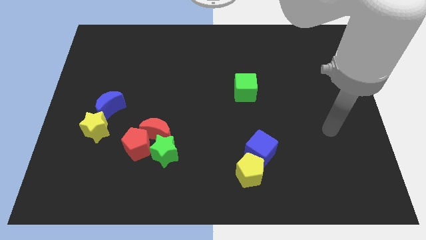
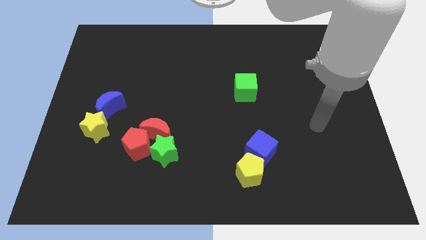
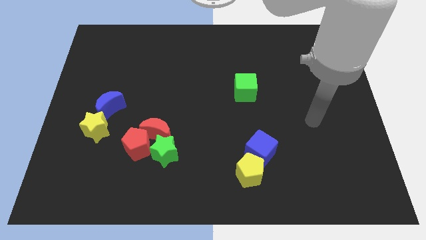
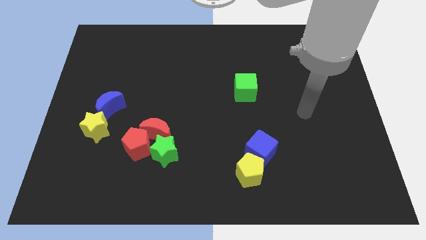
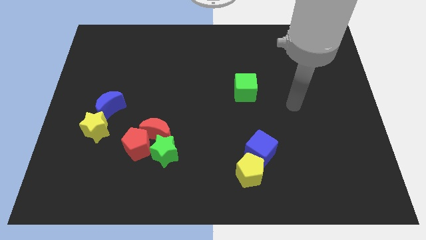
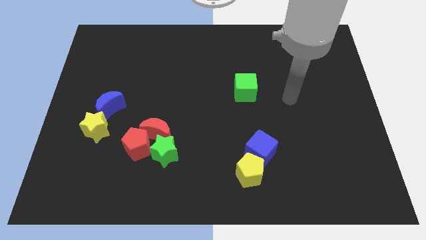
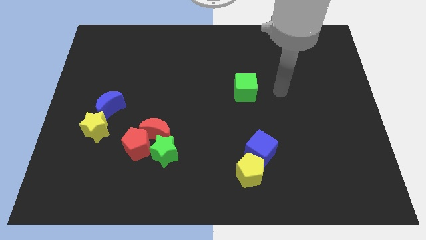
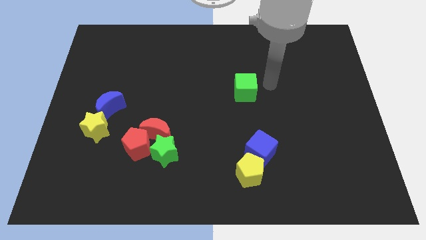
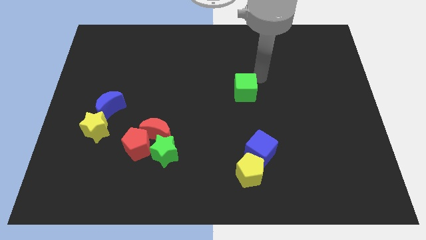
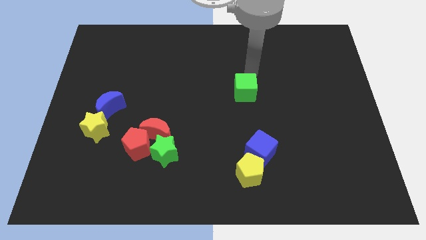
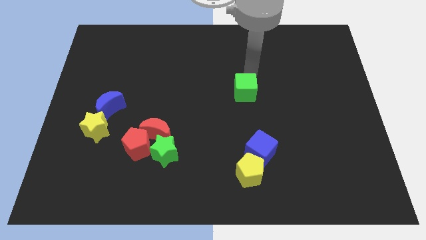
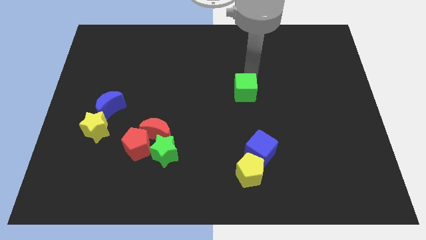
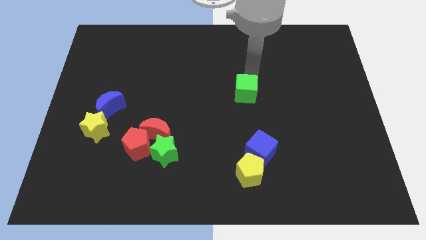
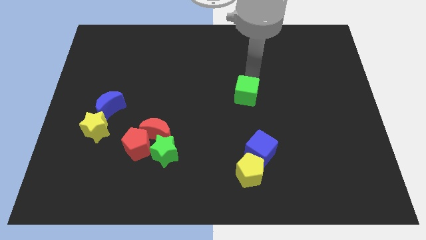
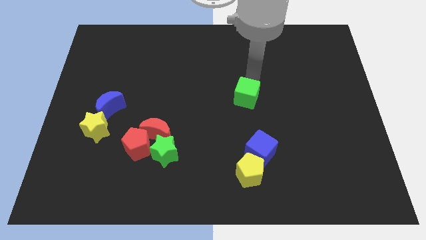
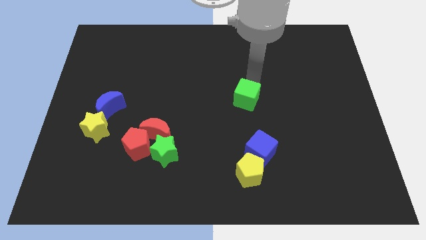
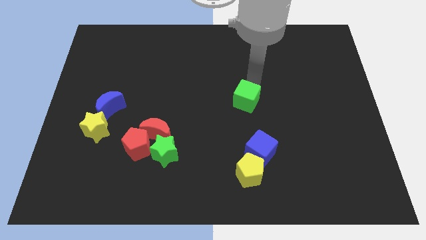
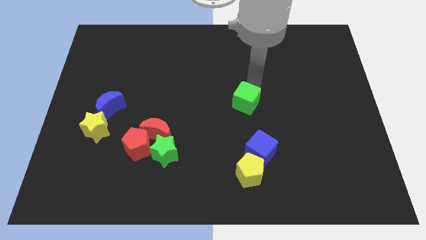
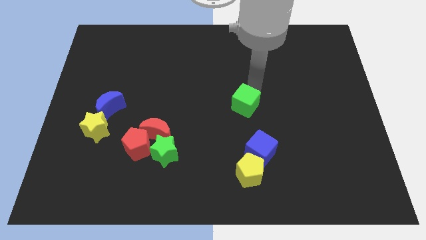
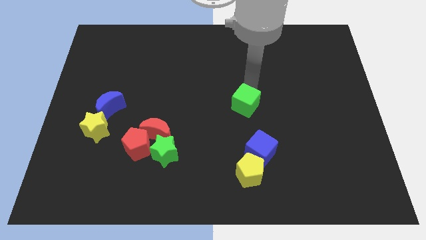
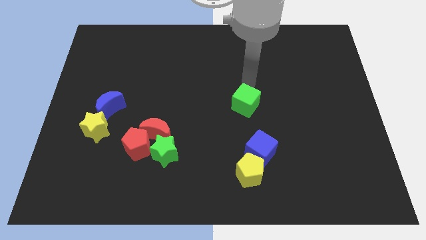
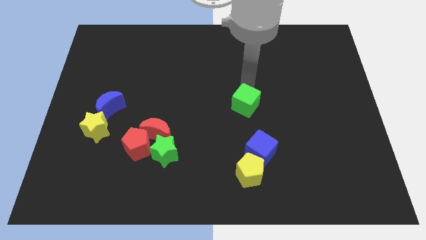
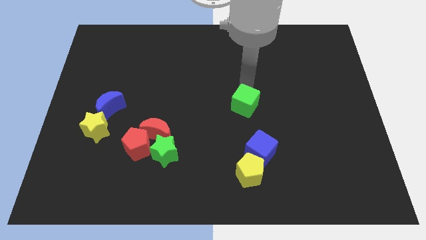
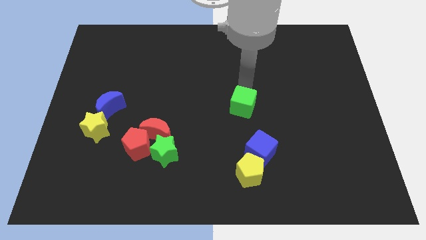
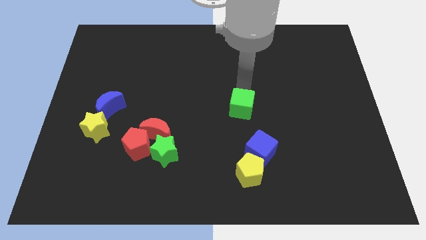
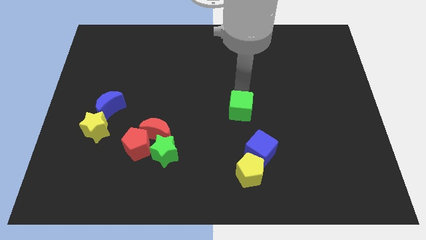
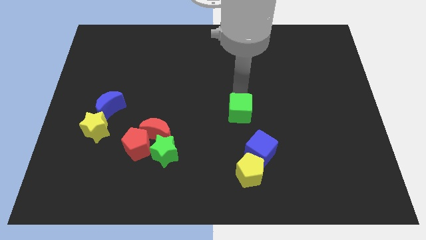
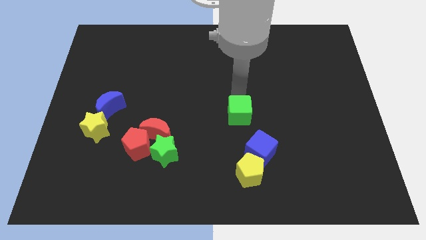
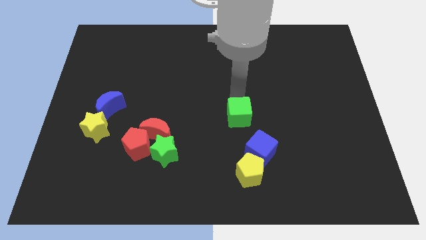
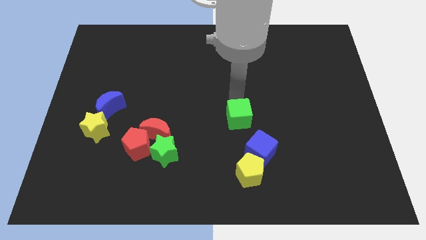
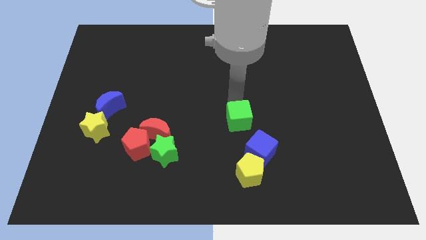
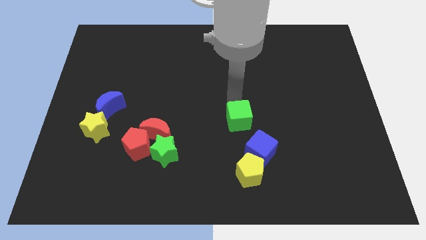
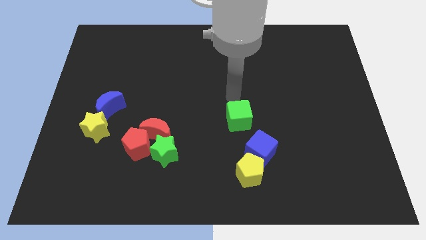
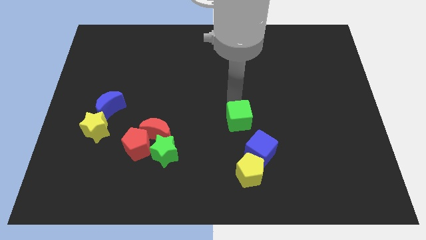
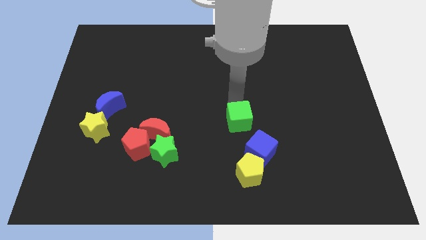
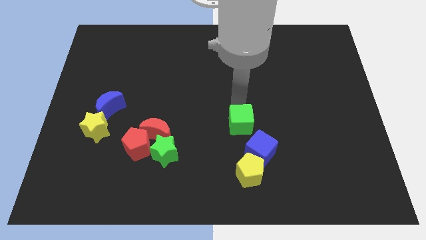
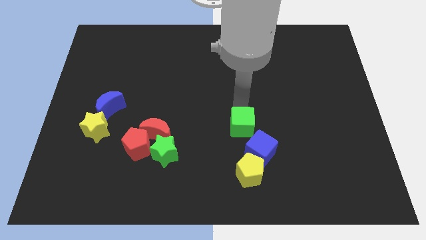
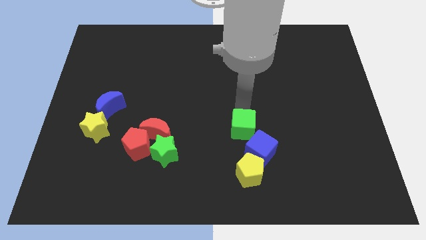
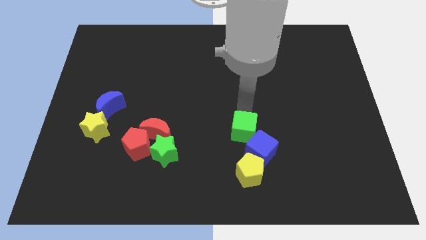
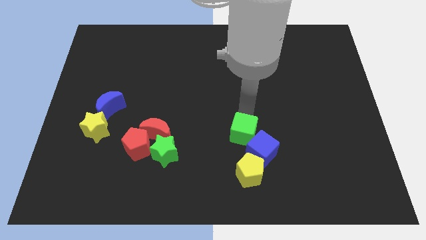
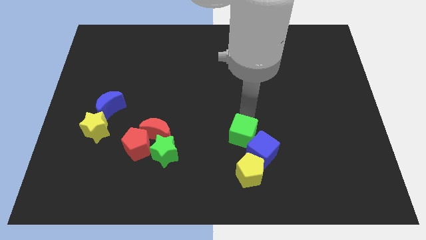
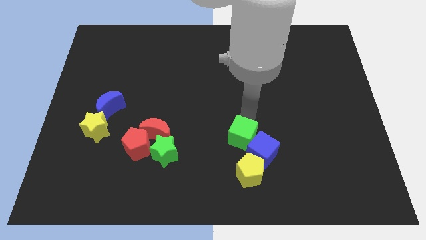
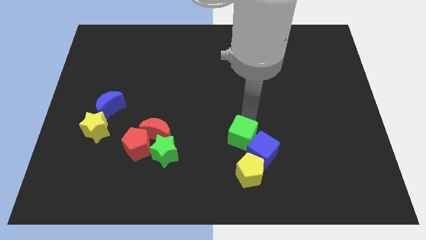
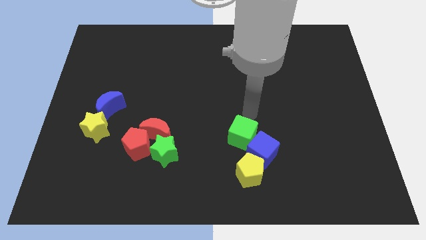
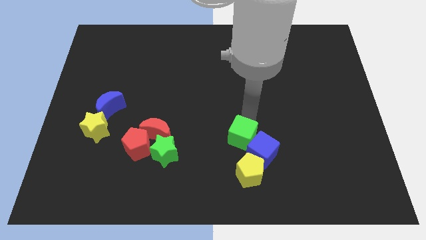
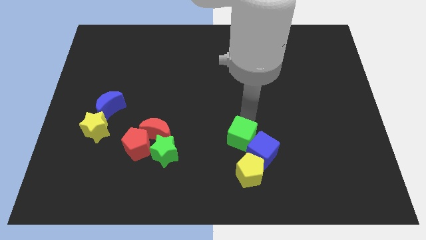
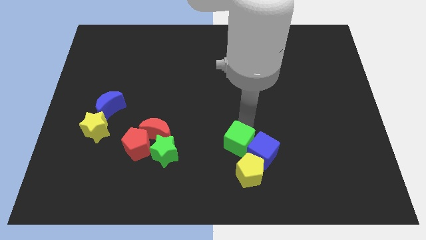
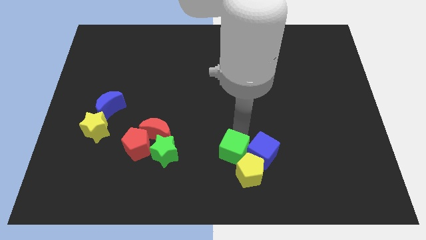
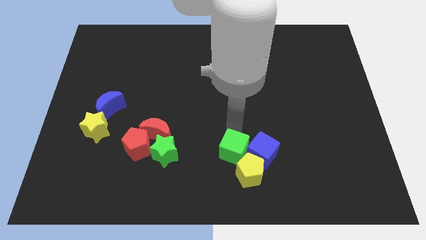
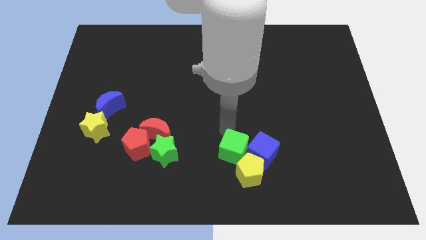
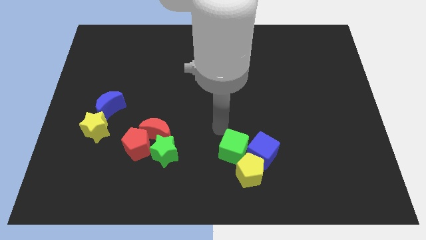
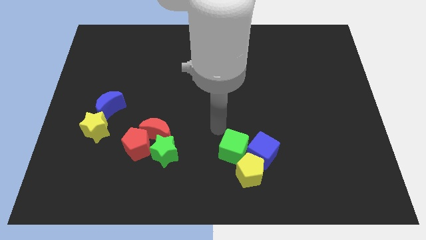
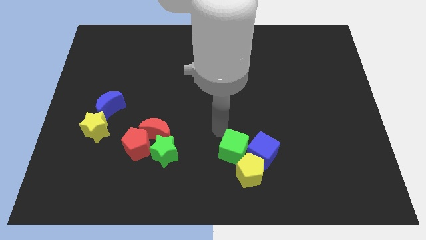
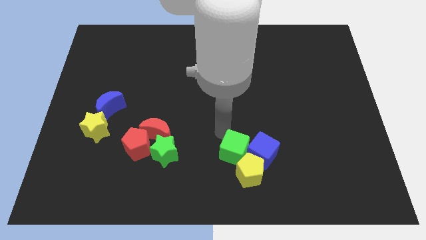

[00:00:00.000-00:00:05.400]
push the green cube to the yellow pentagon

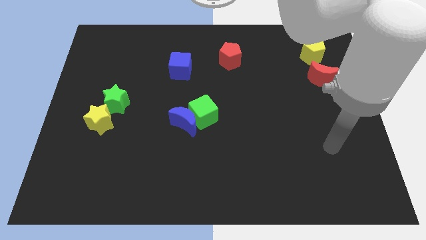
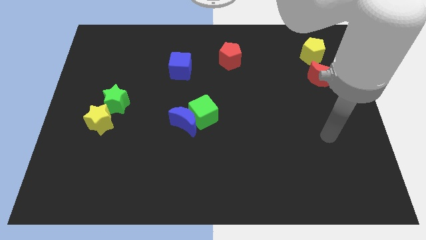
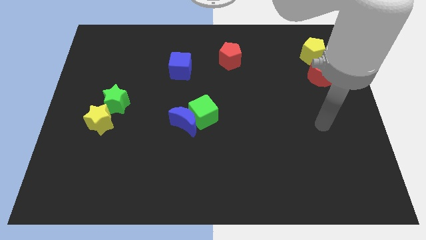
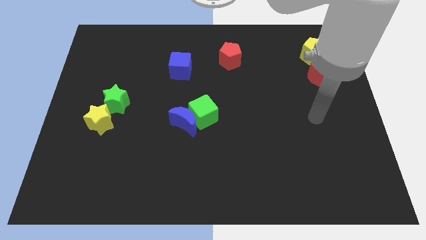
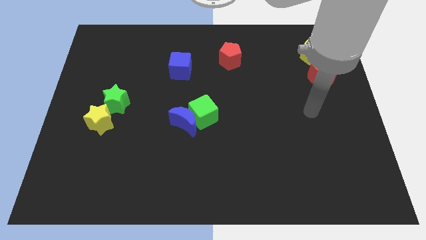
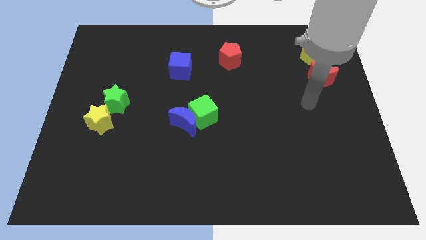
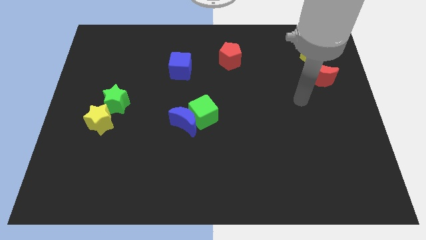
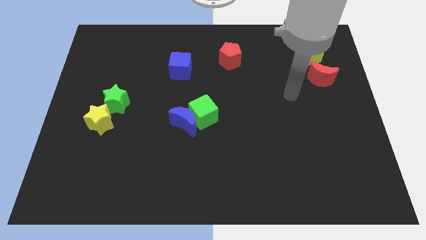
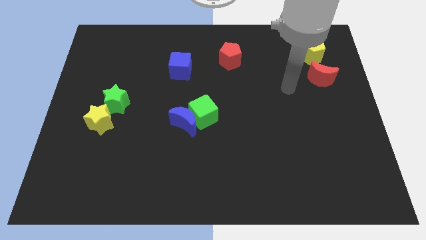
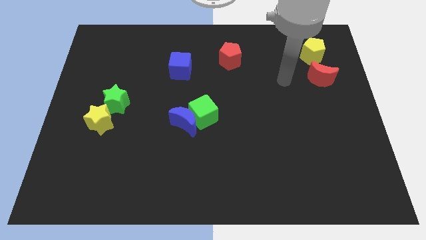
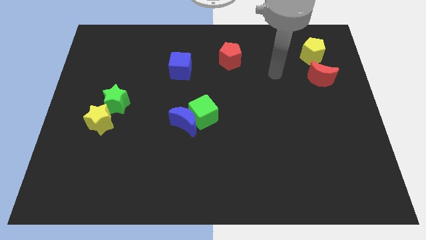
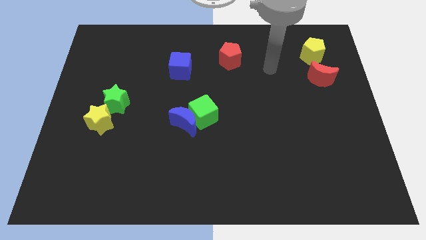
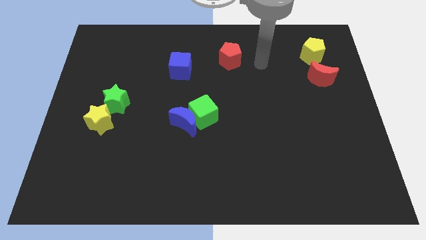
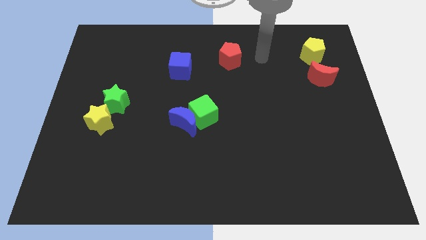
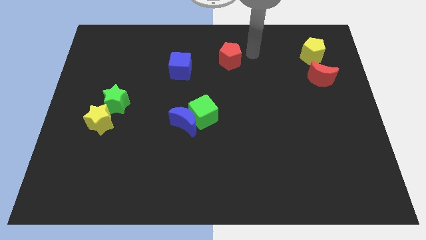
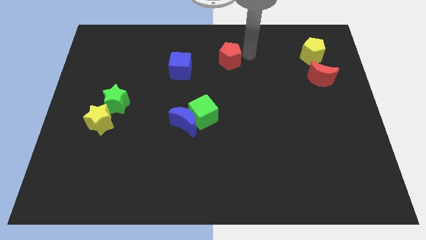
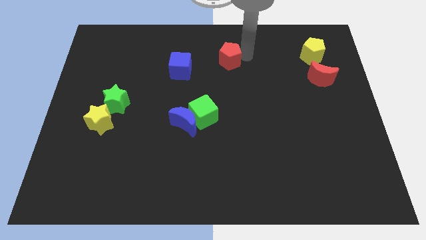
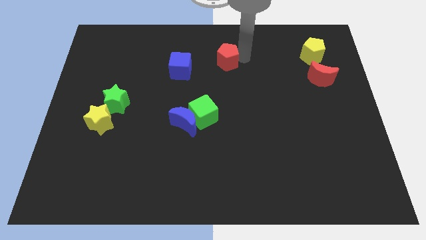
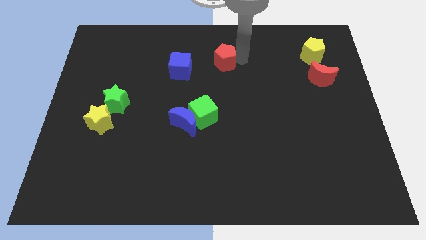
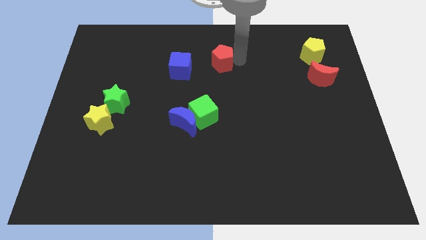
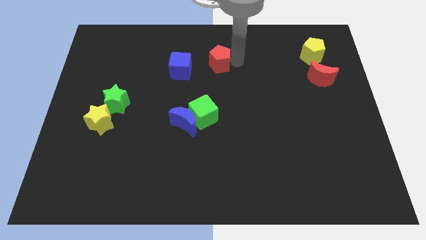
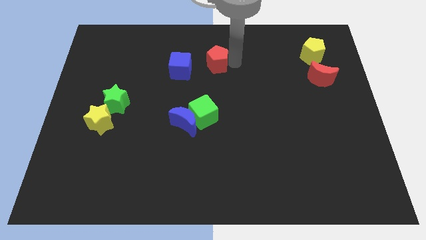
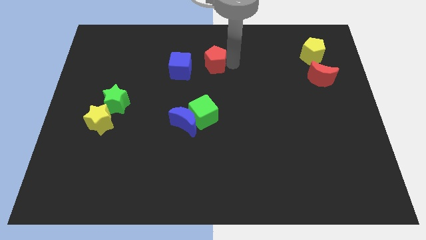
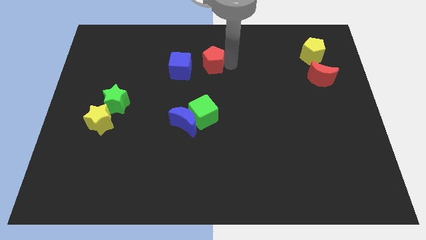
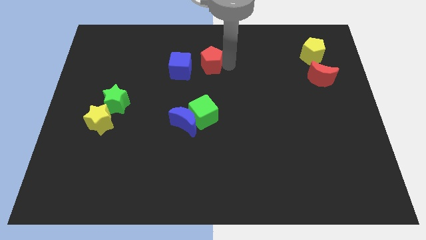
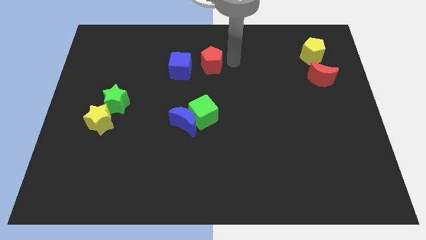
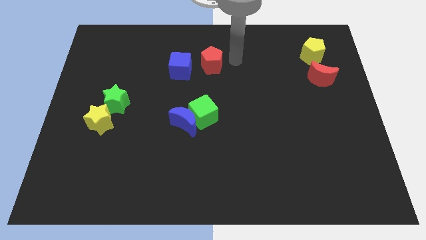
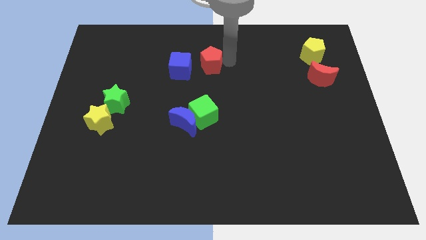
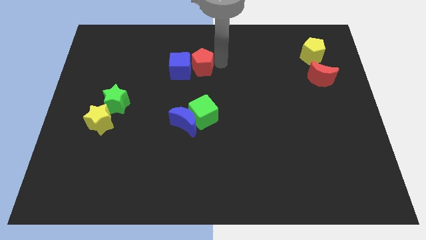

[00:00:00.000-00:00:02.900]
push the red pentagon towards the blue cube
